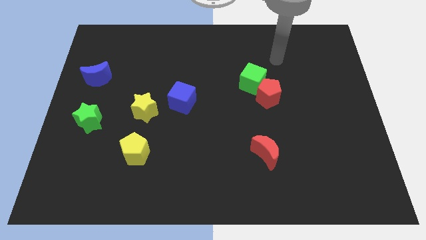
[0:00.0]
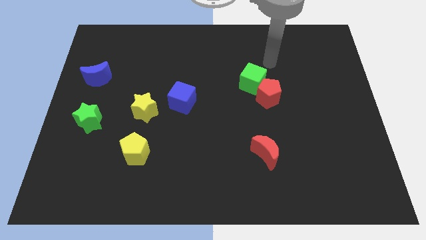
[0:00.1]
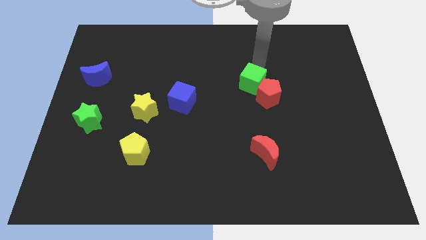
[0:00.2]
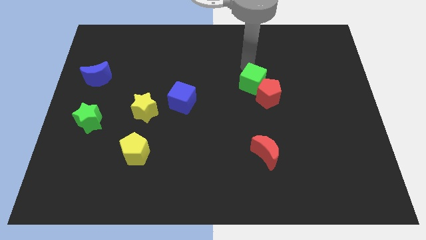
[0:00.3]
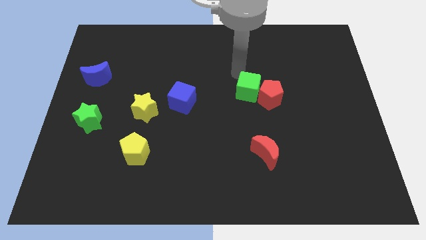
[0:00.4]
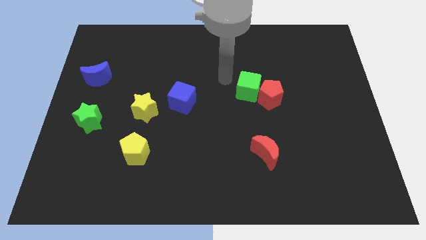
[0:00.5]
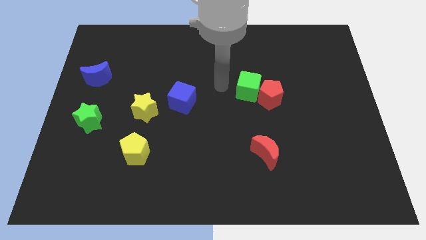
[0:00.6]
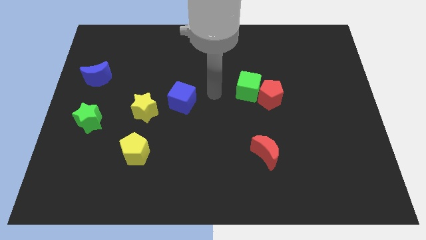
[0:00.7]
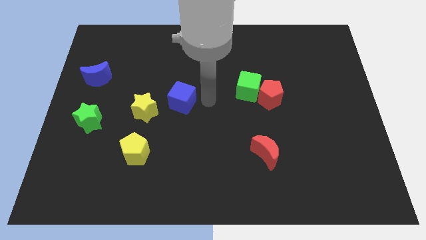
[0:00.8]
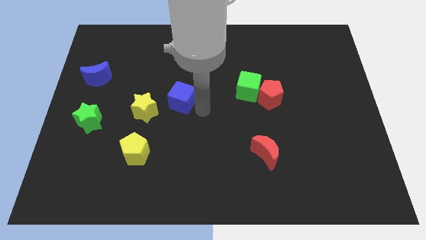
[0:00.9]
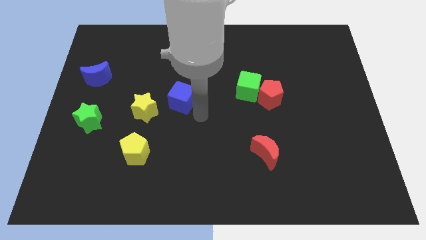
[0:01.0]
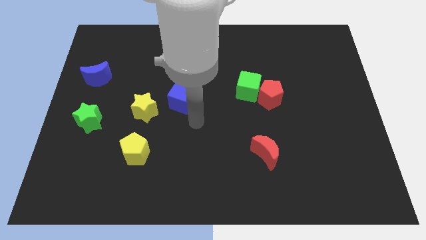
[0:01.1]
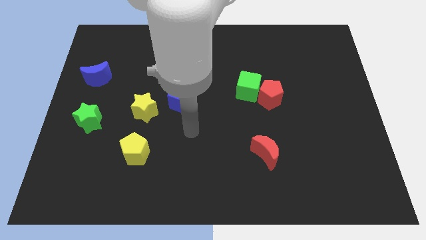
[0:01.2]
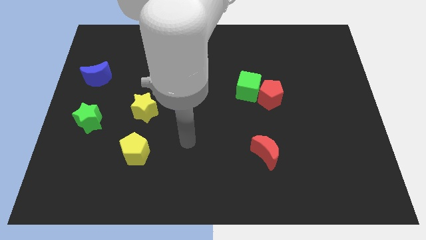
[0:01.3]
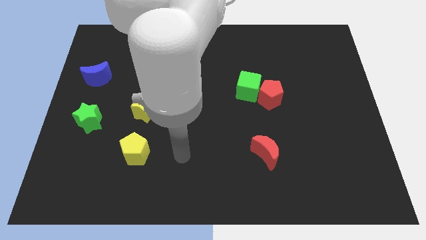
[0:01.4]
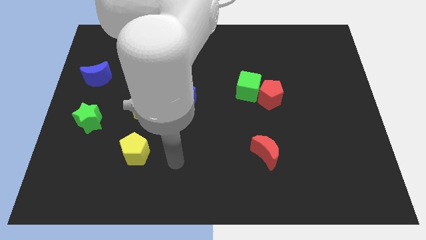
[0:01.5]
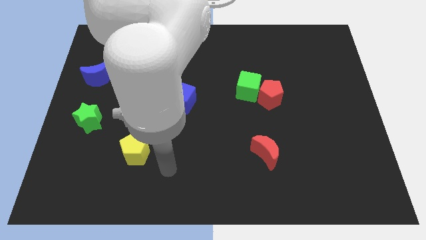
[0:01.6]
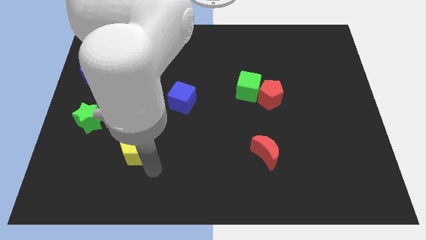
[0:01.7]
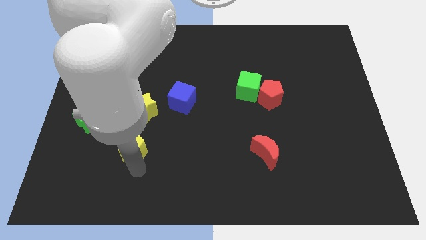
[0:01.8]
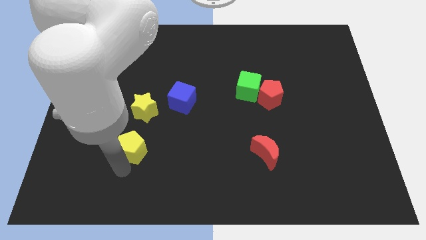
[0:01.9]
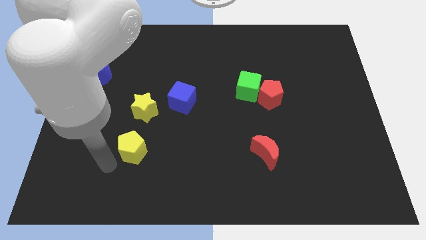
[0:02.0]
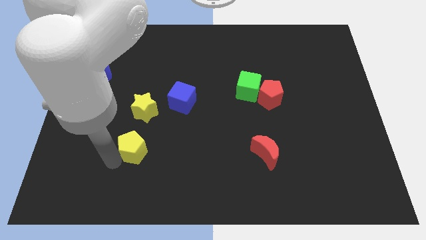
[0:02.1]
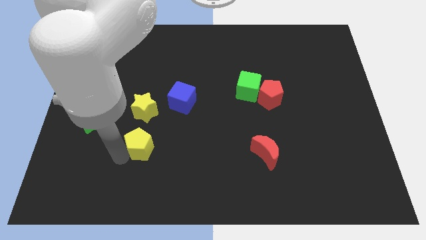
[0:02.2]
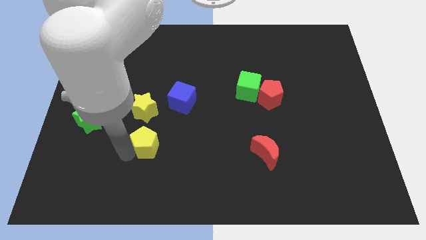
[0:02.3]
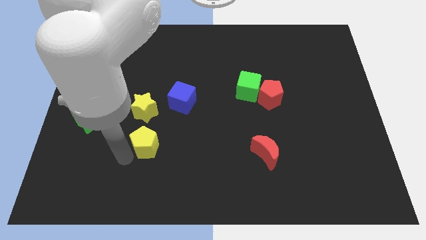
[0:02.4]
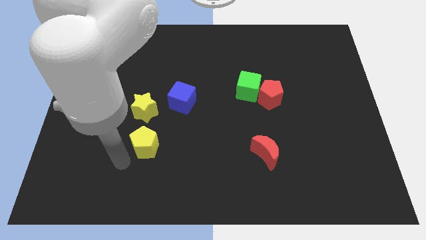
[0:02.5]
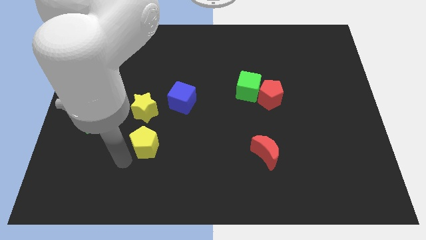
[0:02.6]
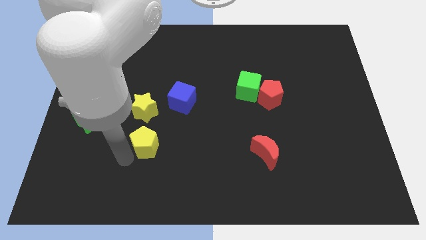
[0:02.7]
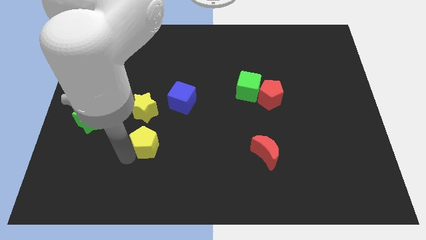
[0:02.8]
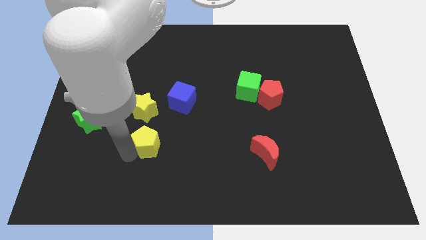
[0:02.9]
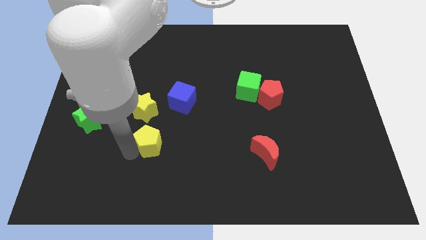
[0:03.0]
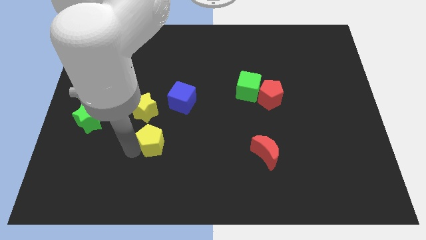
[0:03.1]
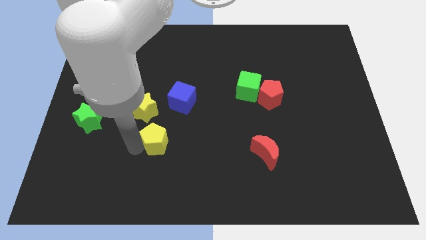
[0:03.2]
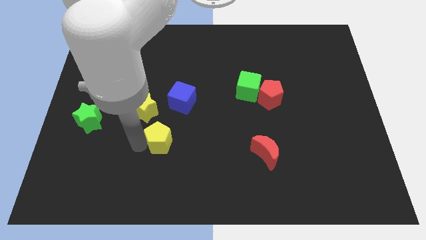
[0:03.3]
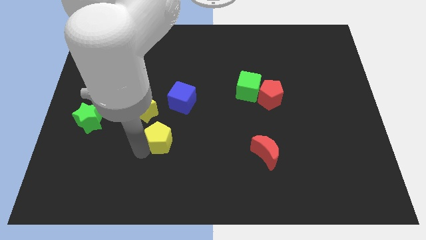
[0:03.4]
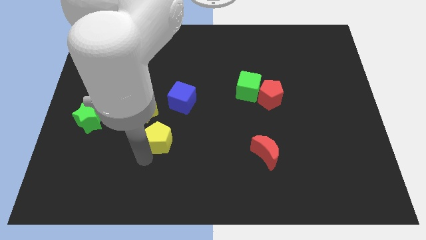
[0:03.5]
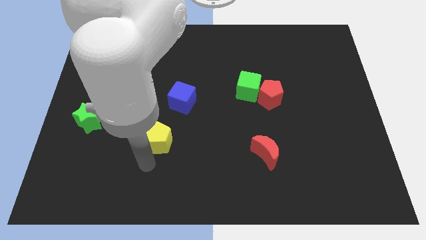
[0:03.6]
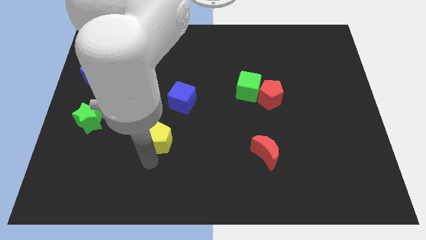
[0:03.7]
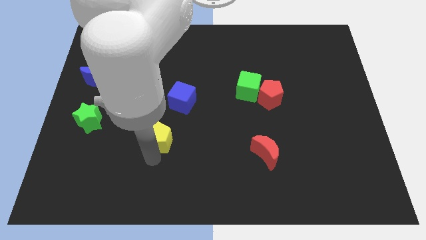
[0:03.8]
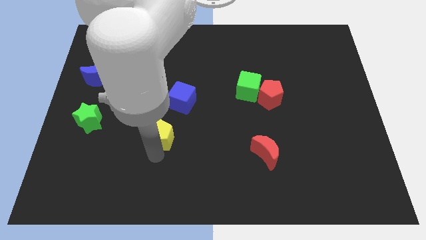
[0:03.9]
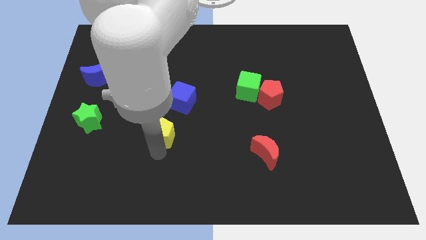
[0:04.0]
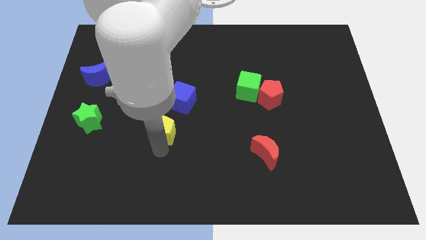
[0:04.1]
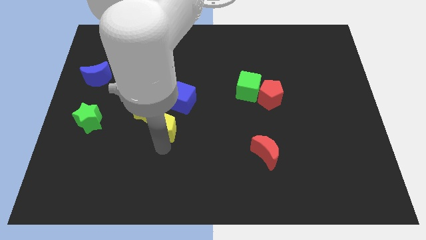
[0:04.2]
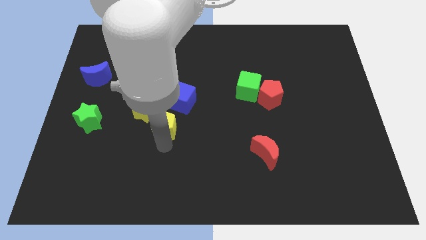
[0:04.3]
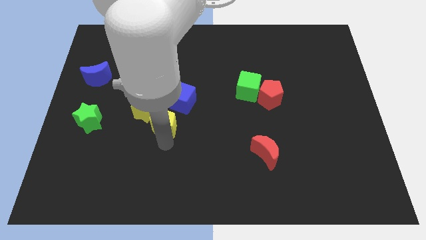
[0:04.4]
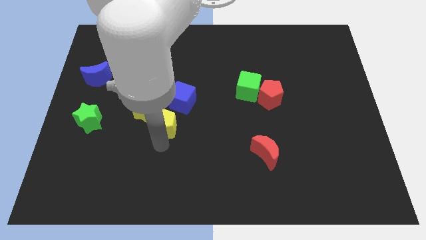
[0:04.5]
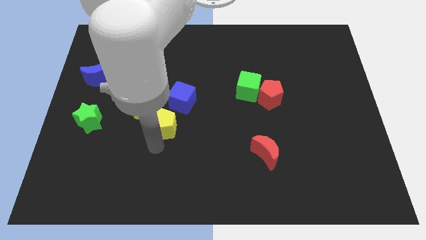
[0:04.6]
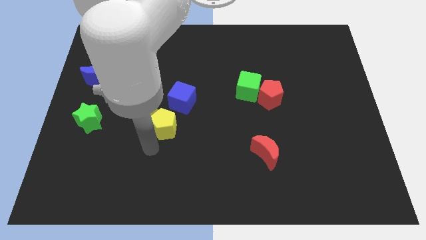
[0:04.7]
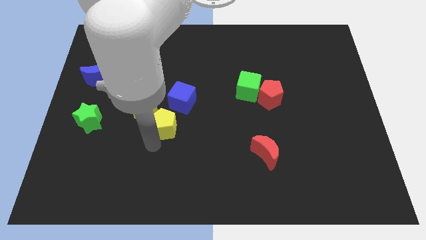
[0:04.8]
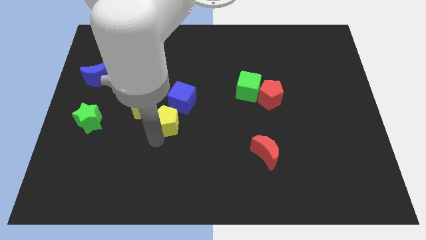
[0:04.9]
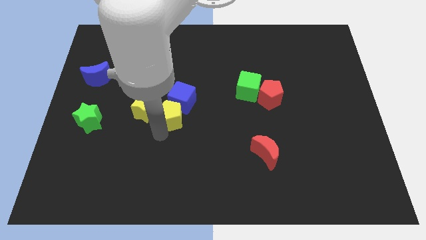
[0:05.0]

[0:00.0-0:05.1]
slide the yellow pentagon next to the blue cube

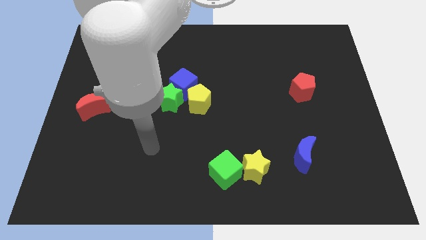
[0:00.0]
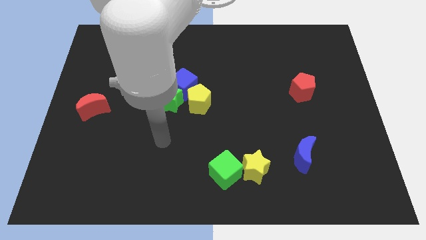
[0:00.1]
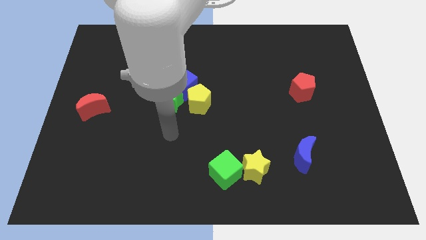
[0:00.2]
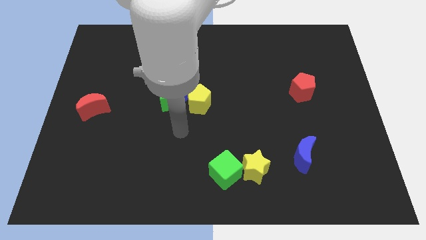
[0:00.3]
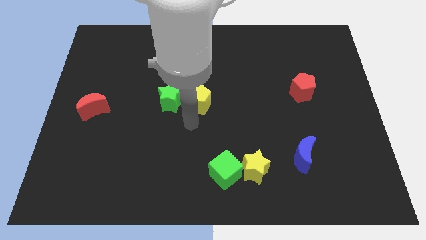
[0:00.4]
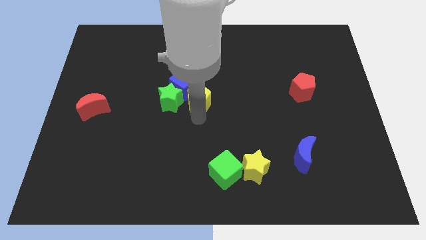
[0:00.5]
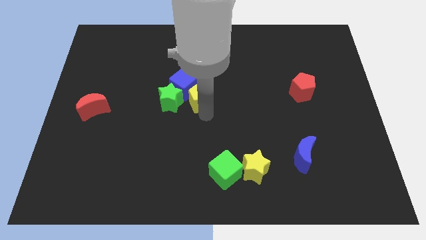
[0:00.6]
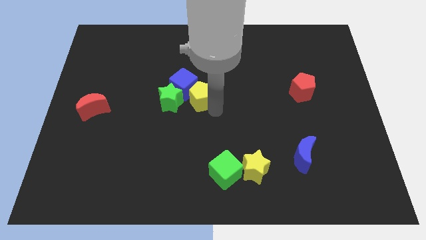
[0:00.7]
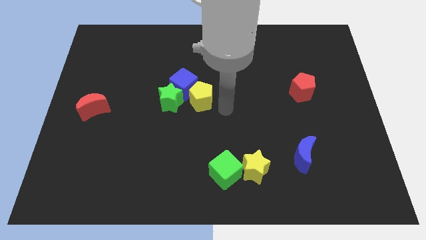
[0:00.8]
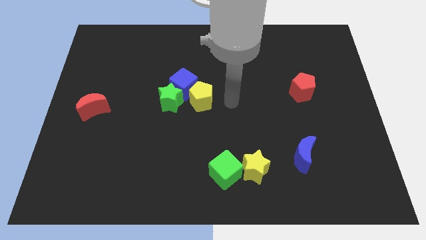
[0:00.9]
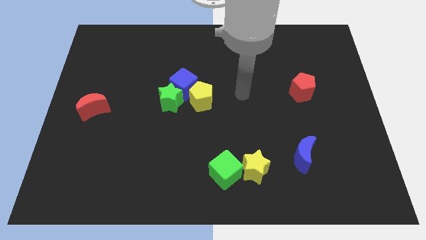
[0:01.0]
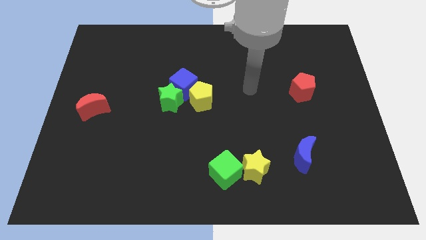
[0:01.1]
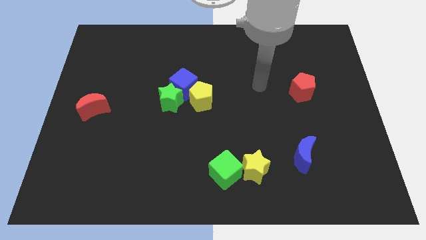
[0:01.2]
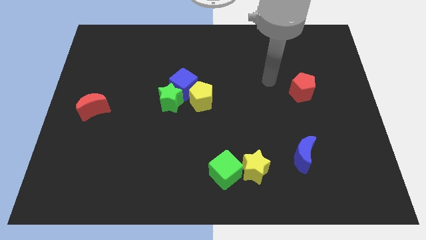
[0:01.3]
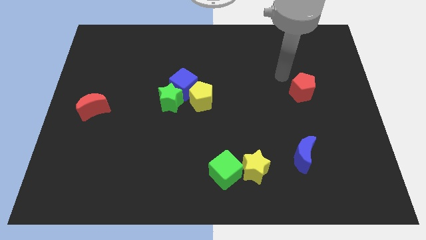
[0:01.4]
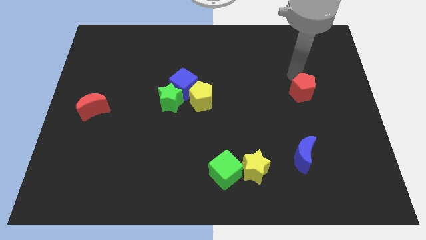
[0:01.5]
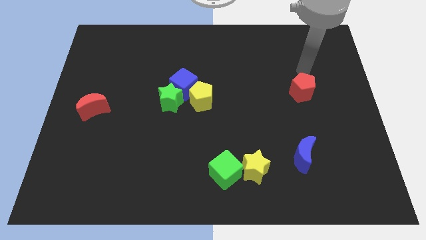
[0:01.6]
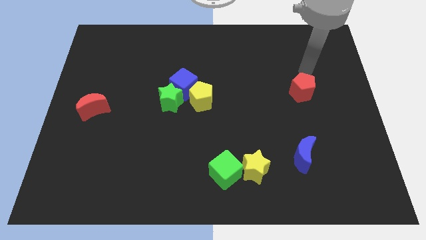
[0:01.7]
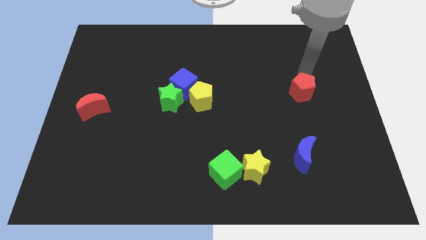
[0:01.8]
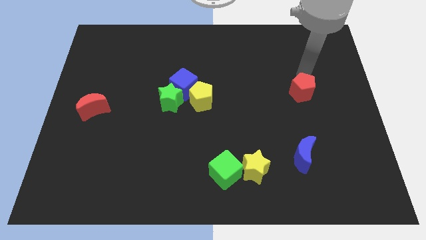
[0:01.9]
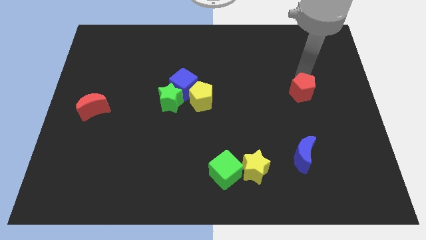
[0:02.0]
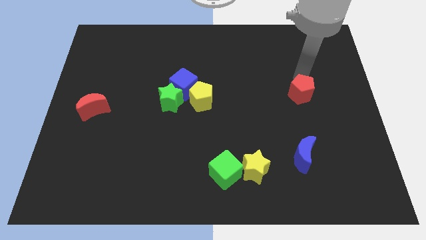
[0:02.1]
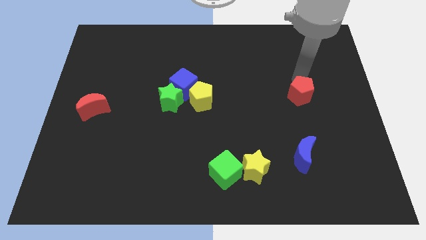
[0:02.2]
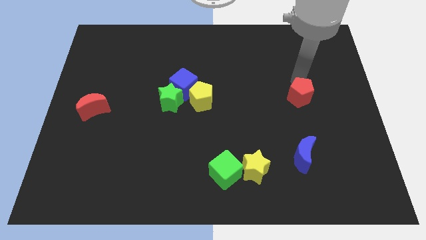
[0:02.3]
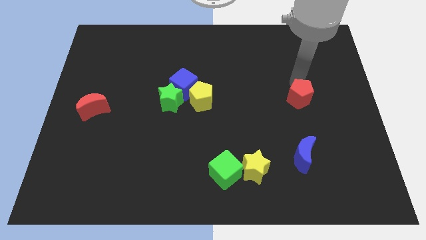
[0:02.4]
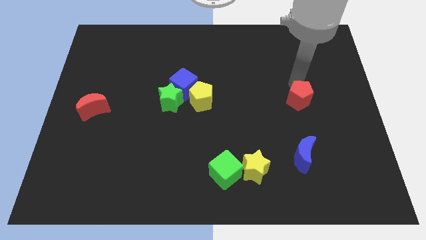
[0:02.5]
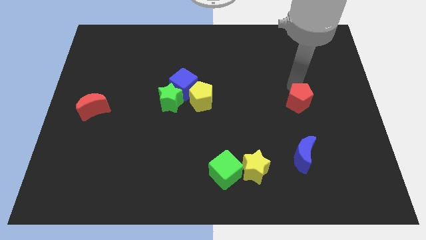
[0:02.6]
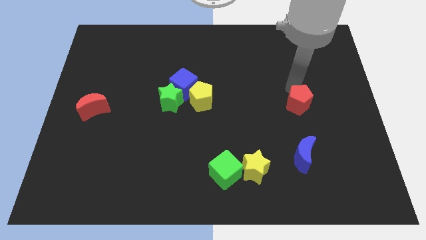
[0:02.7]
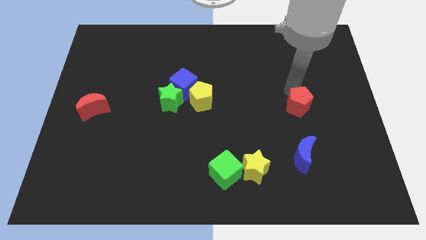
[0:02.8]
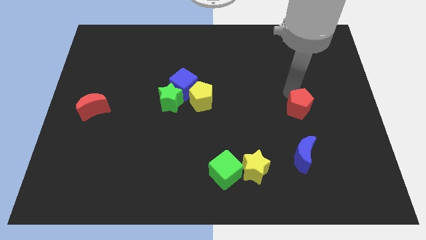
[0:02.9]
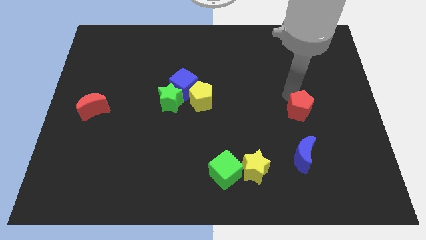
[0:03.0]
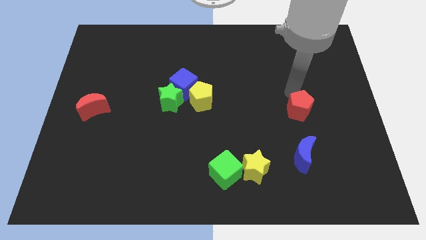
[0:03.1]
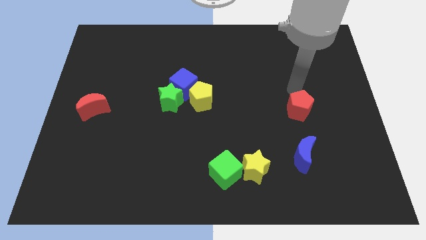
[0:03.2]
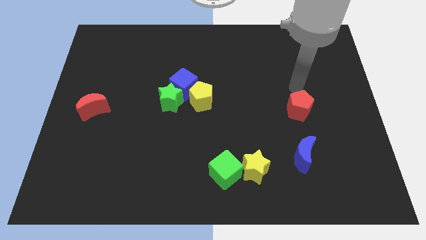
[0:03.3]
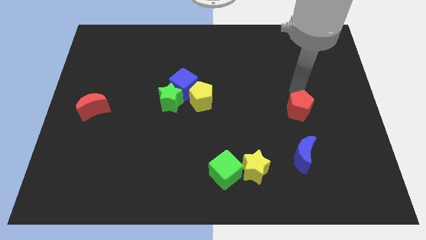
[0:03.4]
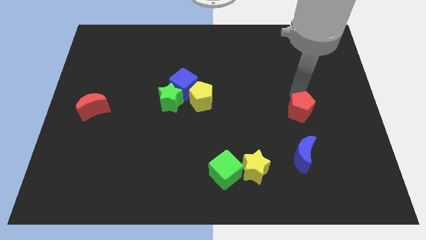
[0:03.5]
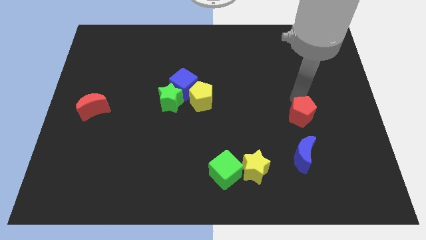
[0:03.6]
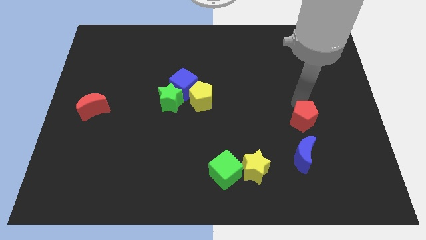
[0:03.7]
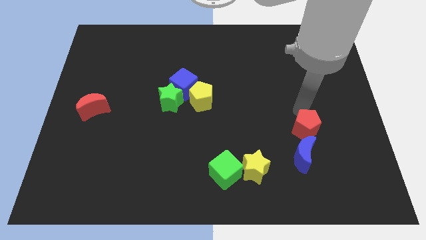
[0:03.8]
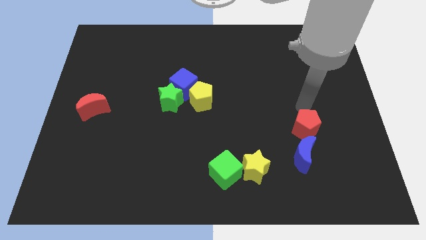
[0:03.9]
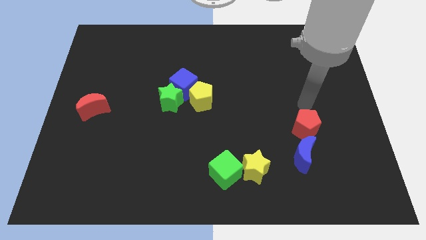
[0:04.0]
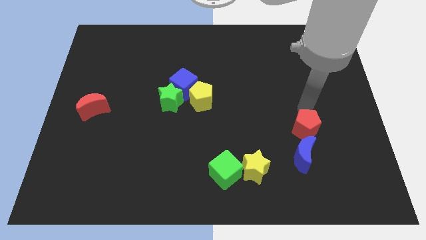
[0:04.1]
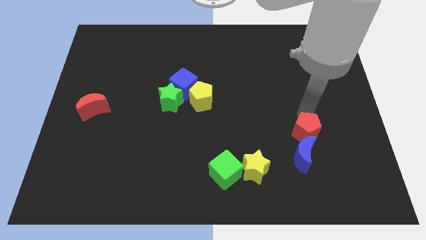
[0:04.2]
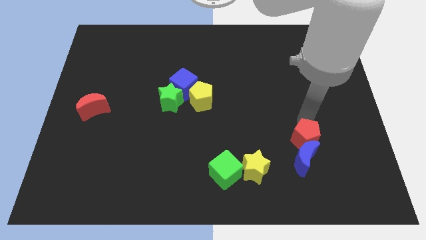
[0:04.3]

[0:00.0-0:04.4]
move the red pentagon next to the blue moon
